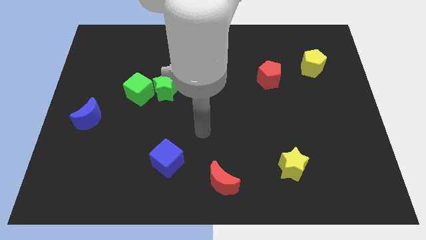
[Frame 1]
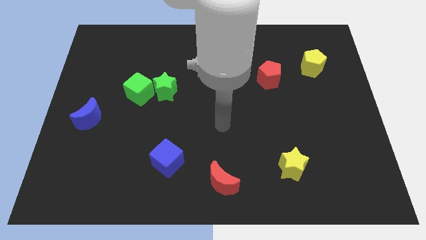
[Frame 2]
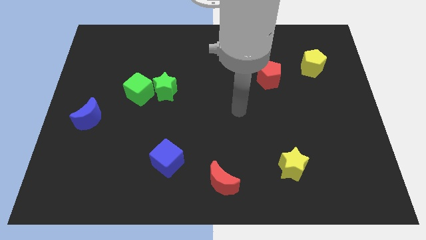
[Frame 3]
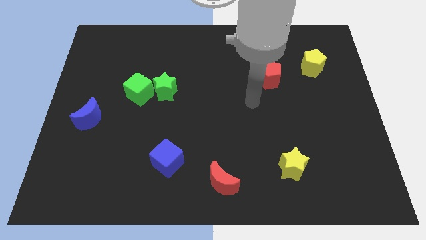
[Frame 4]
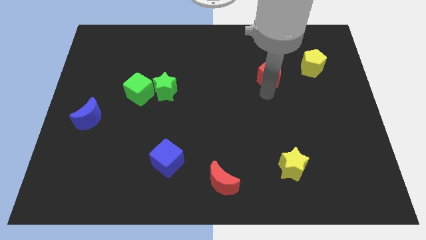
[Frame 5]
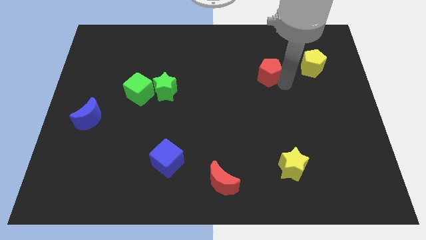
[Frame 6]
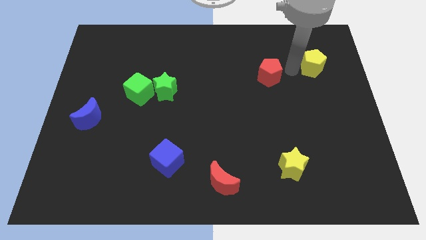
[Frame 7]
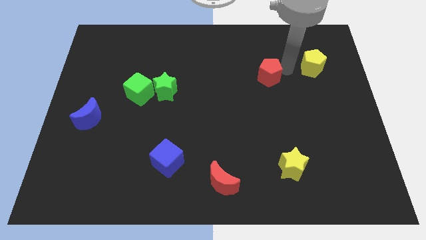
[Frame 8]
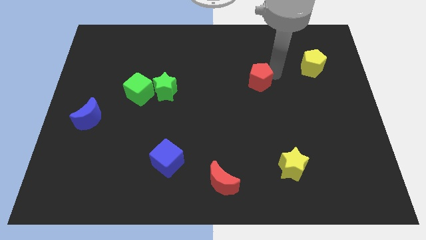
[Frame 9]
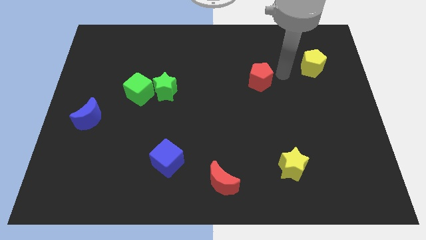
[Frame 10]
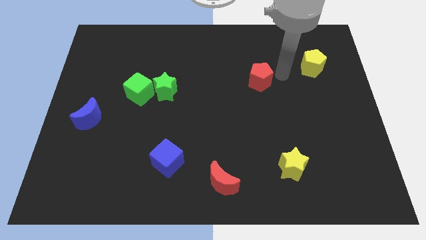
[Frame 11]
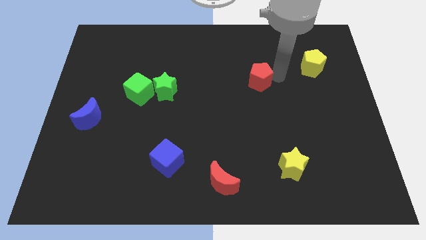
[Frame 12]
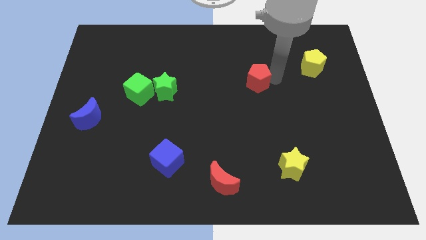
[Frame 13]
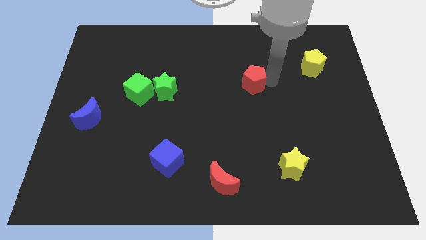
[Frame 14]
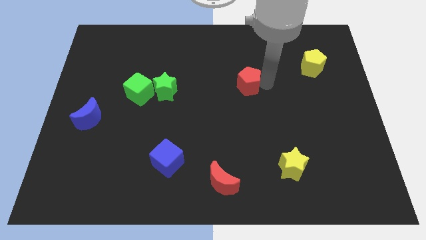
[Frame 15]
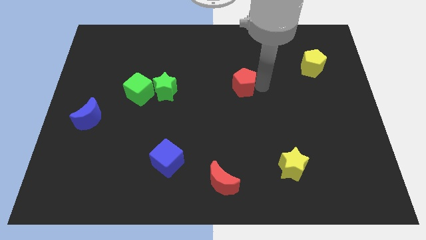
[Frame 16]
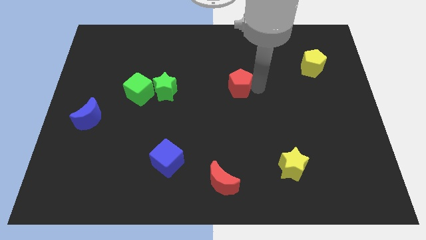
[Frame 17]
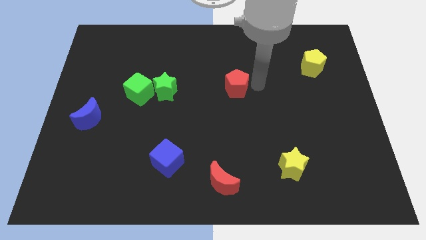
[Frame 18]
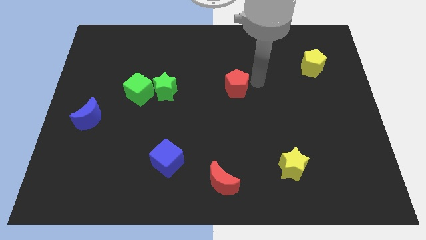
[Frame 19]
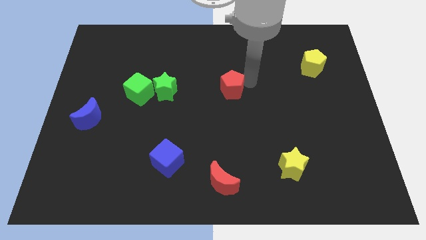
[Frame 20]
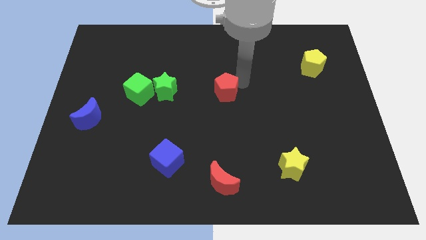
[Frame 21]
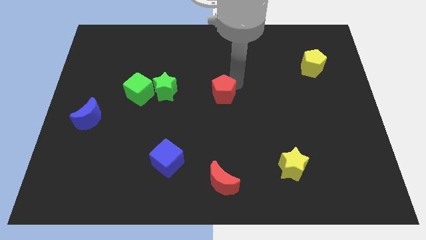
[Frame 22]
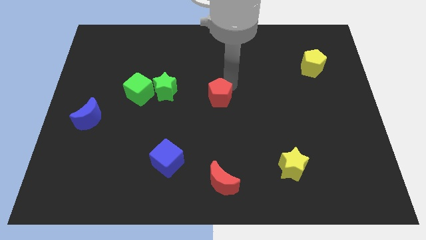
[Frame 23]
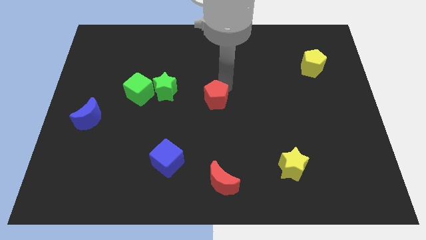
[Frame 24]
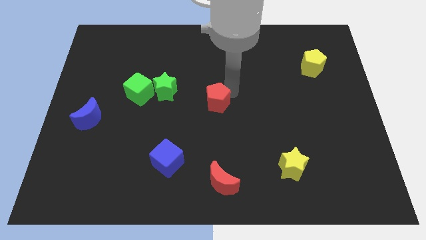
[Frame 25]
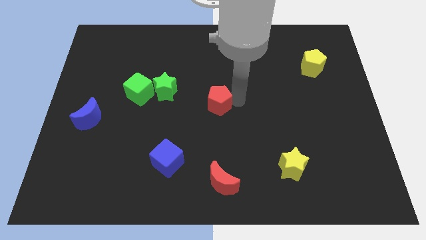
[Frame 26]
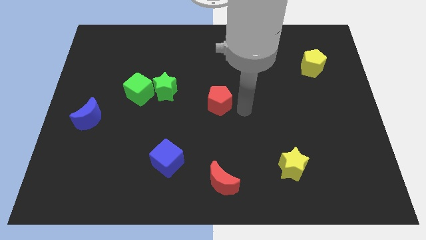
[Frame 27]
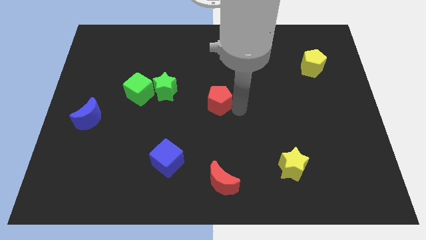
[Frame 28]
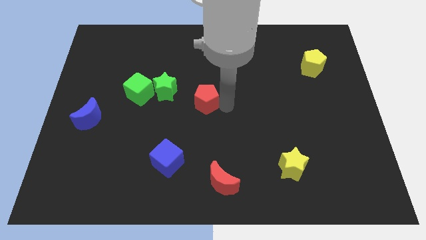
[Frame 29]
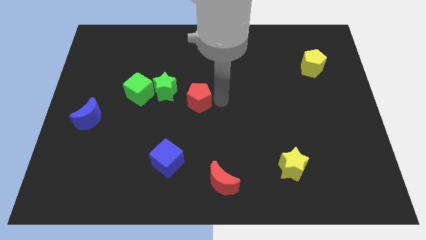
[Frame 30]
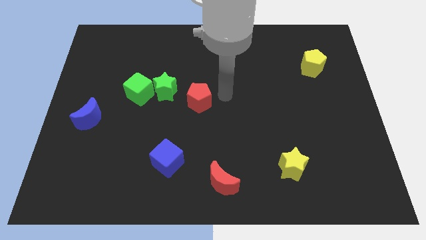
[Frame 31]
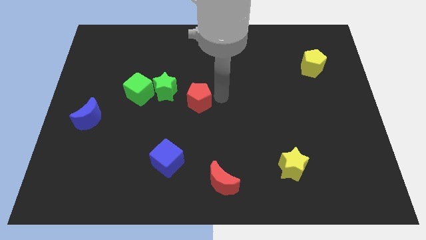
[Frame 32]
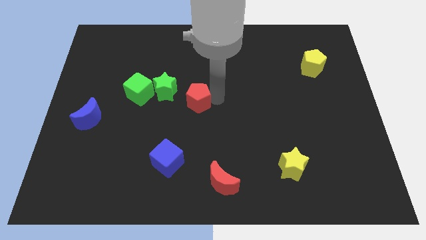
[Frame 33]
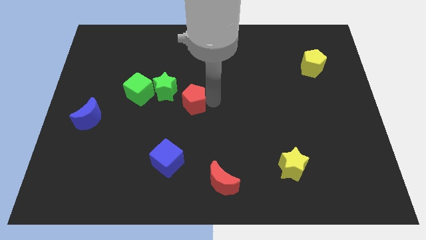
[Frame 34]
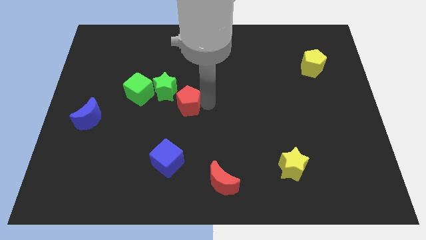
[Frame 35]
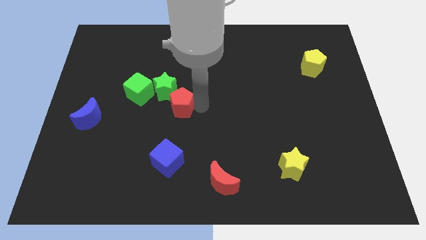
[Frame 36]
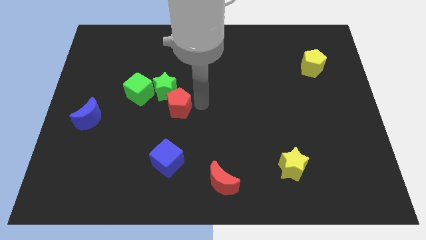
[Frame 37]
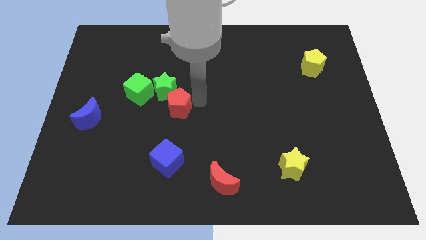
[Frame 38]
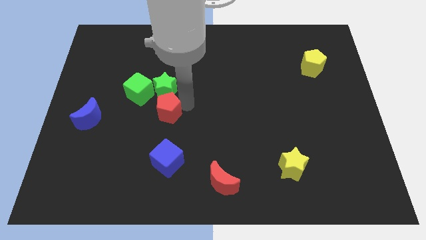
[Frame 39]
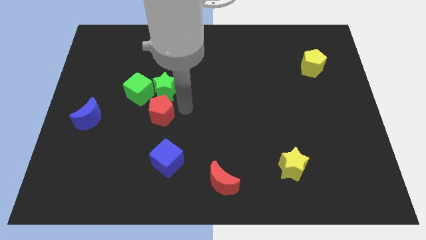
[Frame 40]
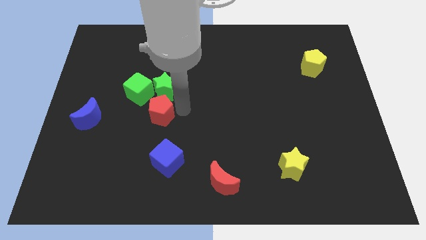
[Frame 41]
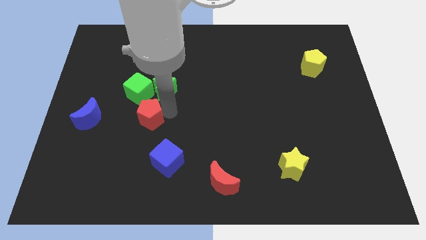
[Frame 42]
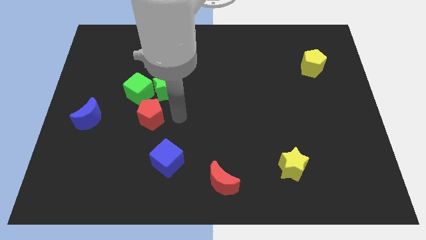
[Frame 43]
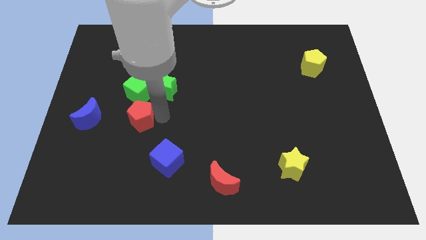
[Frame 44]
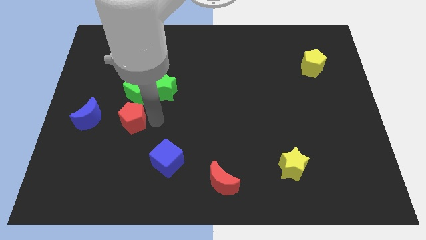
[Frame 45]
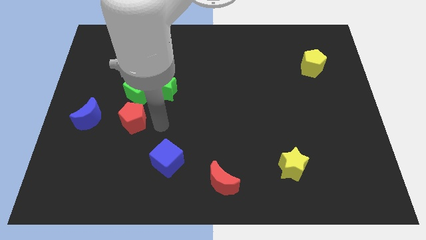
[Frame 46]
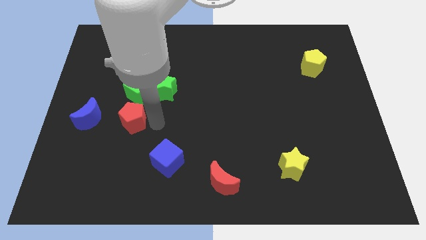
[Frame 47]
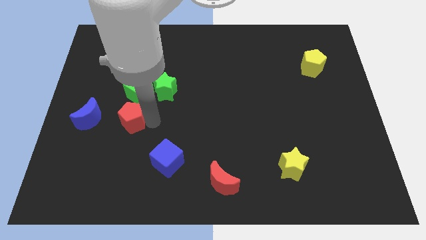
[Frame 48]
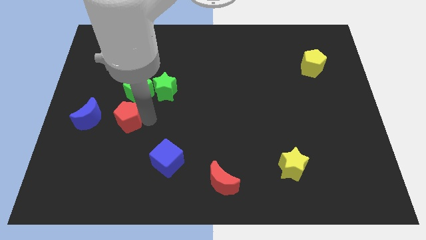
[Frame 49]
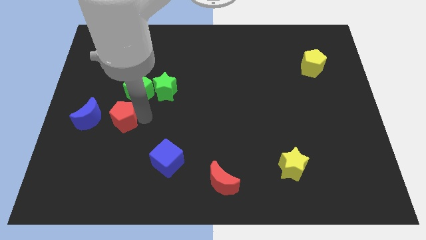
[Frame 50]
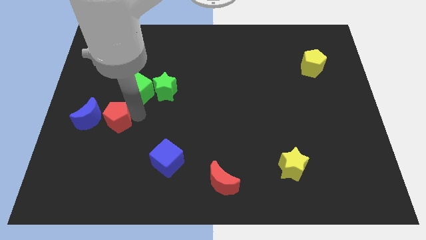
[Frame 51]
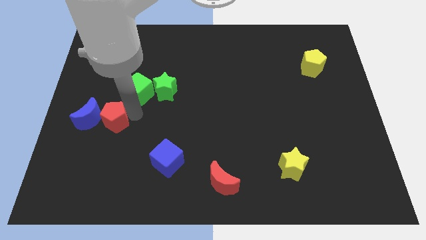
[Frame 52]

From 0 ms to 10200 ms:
put the red pentagon close to the blue moon

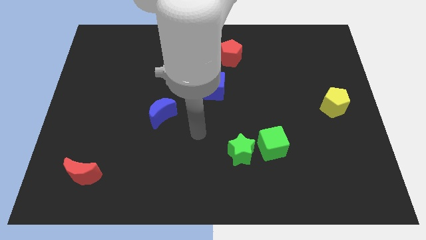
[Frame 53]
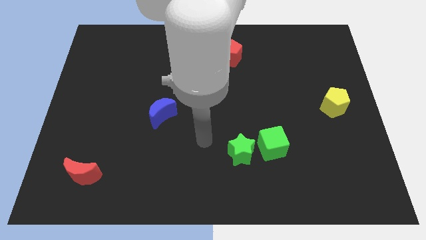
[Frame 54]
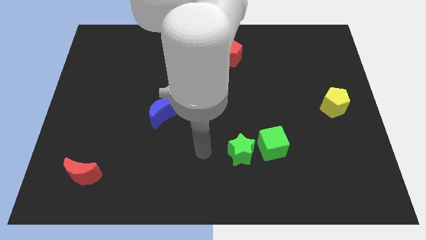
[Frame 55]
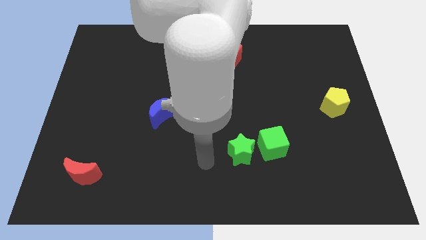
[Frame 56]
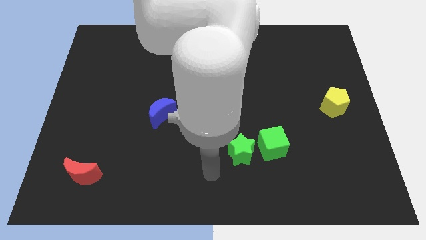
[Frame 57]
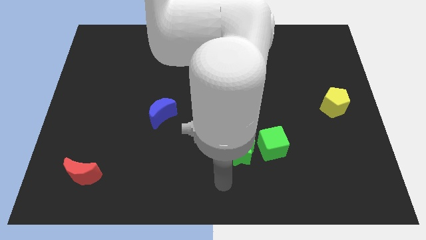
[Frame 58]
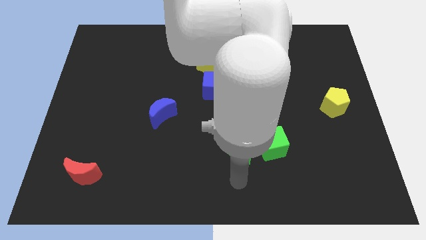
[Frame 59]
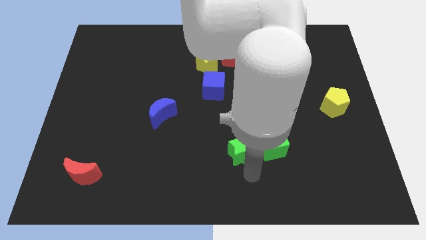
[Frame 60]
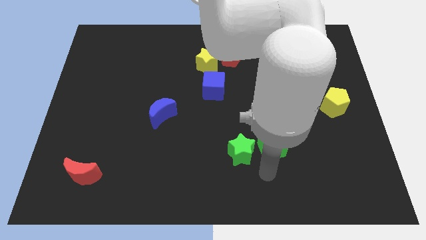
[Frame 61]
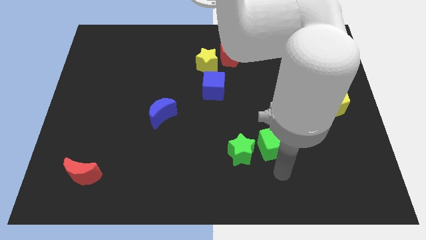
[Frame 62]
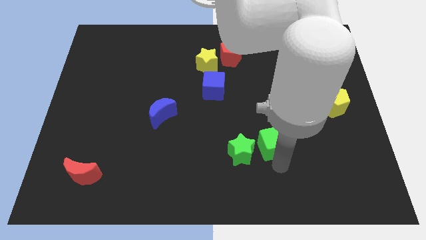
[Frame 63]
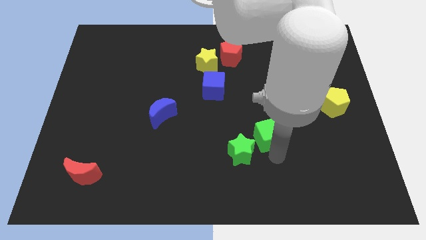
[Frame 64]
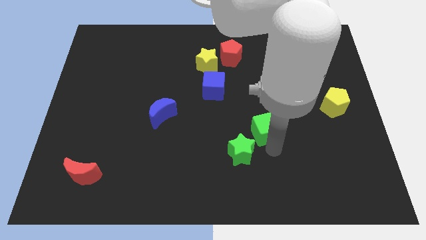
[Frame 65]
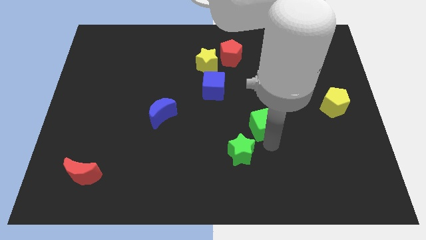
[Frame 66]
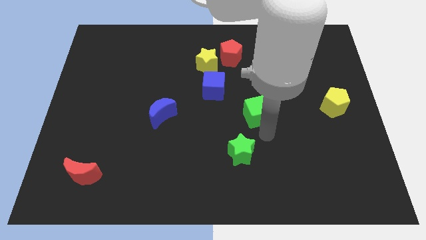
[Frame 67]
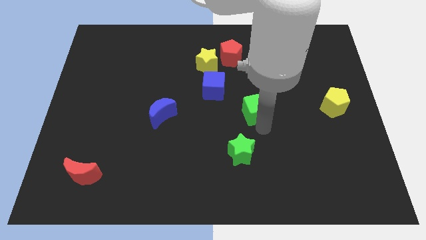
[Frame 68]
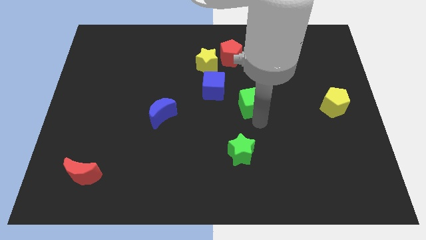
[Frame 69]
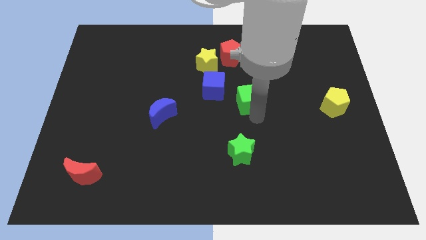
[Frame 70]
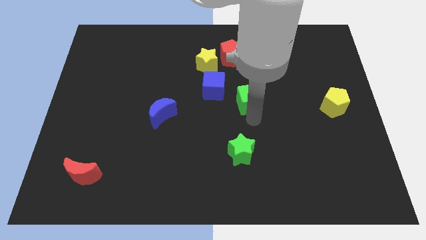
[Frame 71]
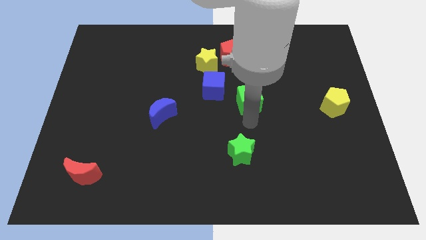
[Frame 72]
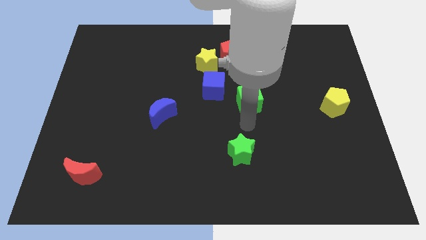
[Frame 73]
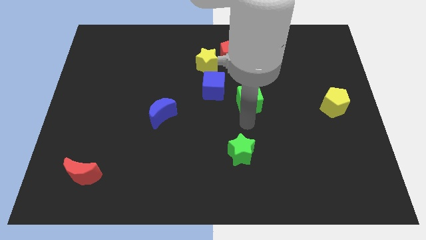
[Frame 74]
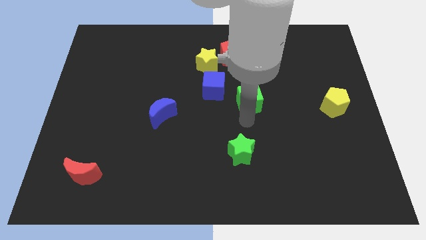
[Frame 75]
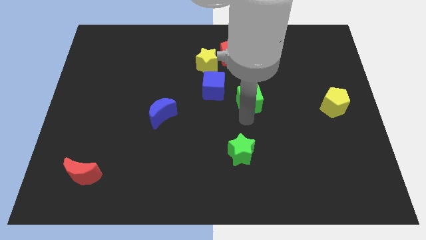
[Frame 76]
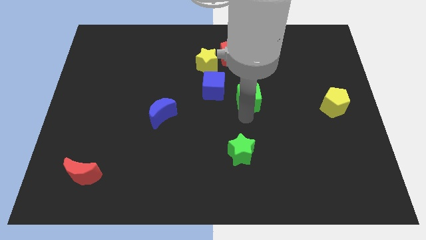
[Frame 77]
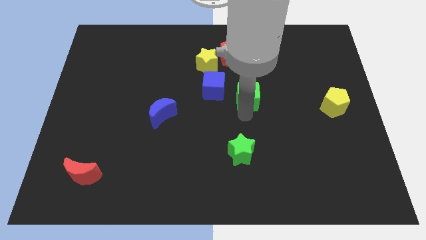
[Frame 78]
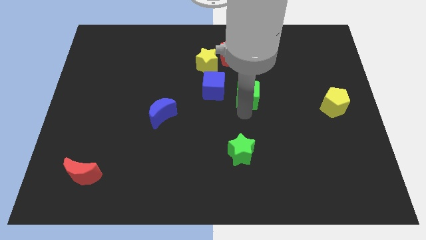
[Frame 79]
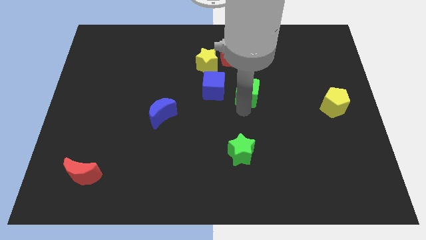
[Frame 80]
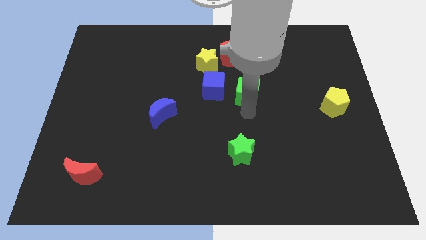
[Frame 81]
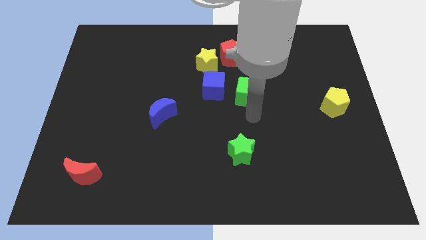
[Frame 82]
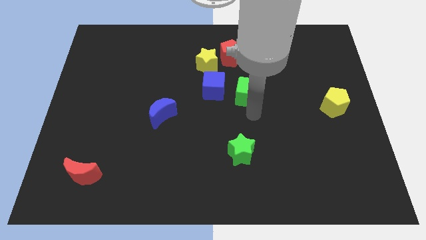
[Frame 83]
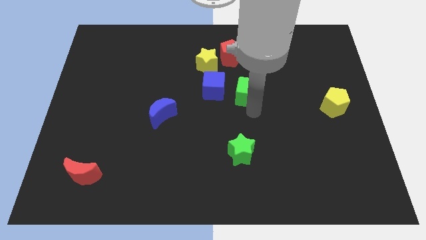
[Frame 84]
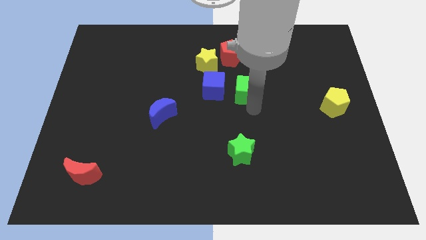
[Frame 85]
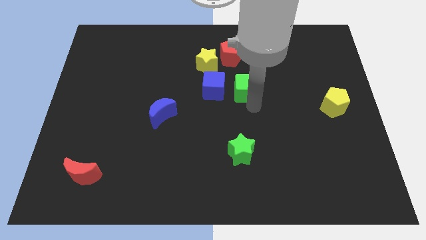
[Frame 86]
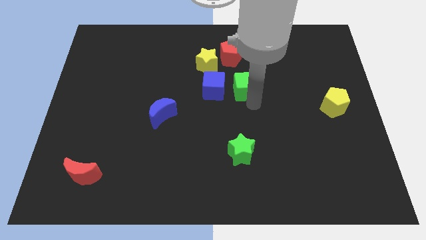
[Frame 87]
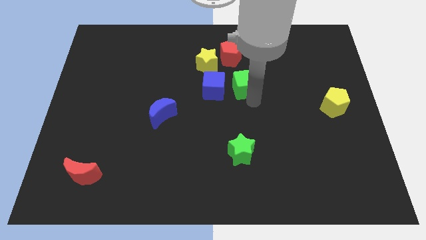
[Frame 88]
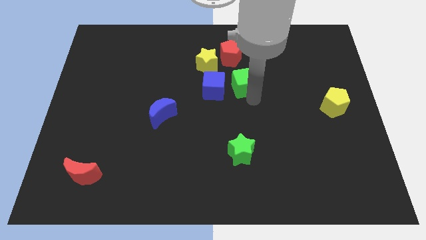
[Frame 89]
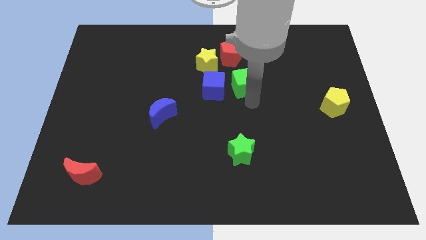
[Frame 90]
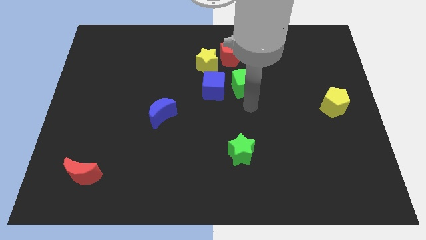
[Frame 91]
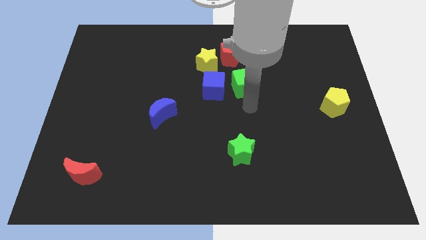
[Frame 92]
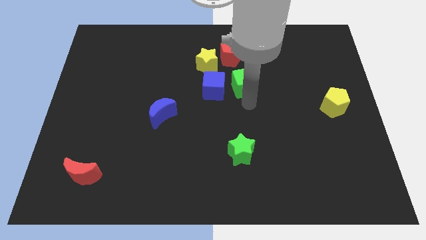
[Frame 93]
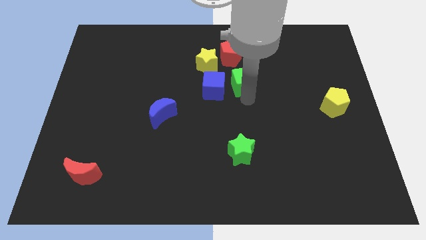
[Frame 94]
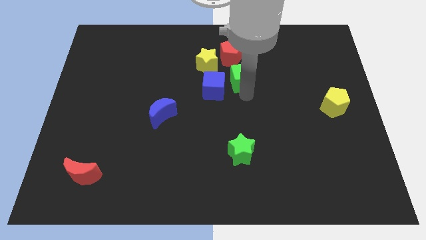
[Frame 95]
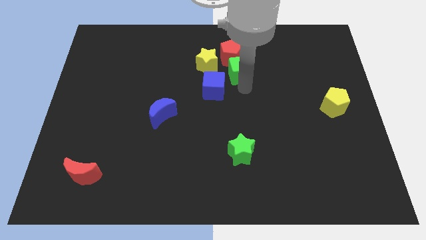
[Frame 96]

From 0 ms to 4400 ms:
push the green cube close to the red pentagon
